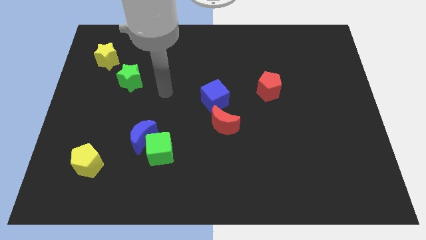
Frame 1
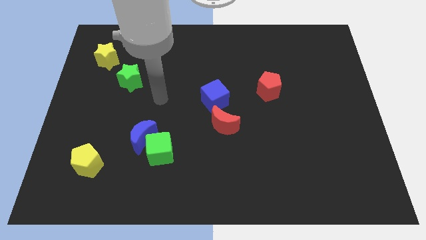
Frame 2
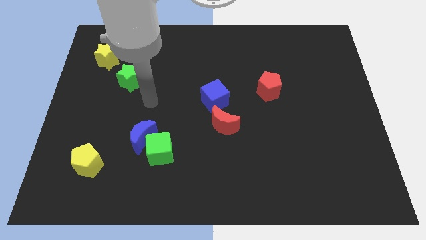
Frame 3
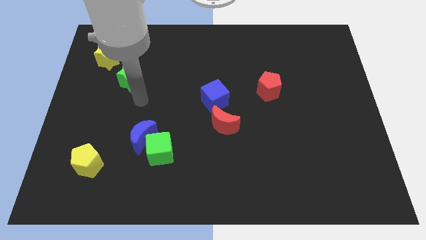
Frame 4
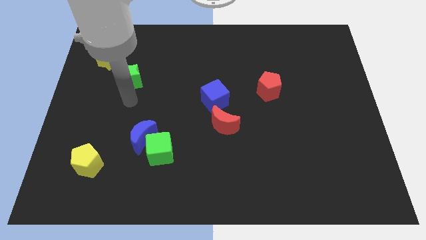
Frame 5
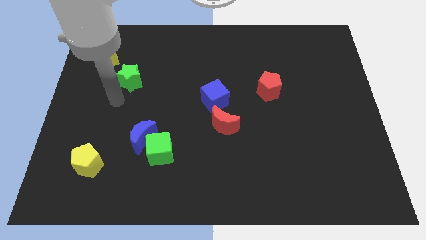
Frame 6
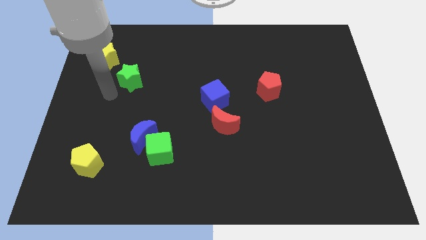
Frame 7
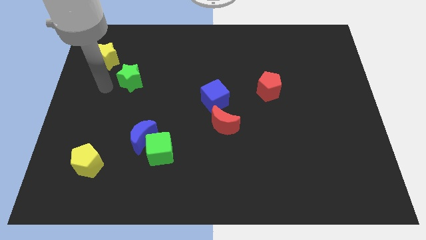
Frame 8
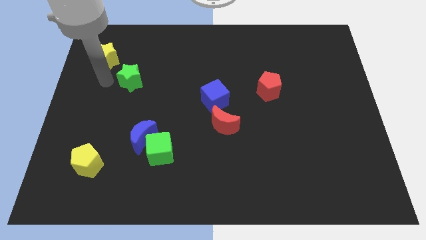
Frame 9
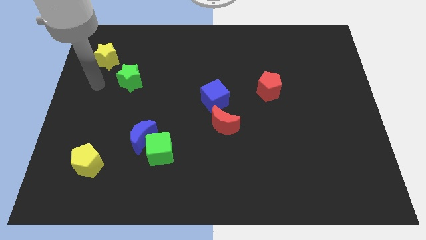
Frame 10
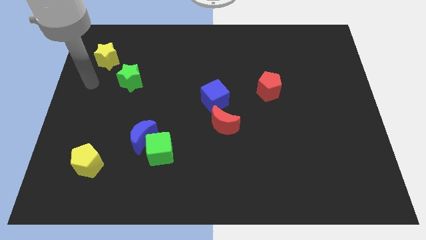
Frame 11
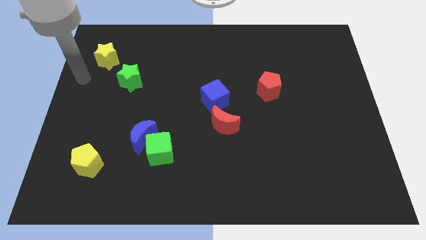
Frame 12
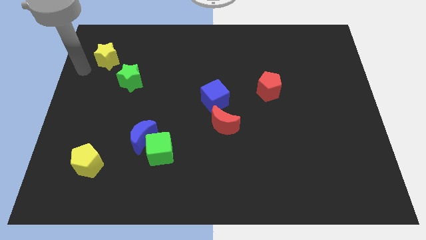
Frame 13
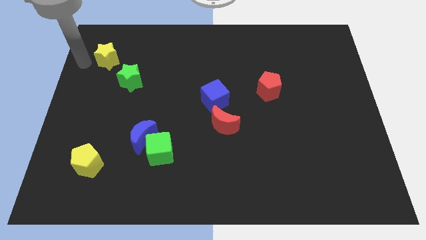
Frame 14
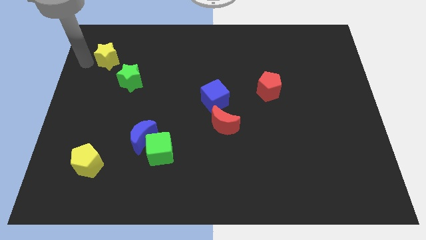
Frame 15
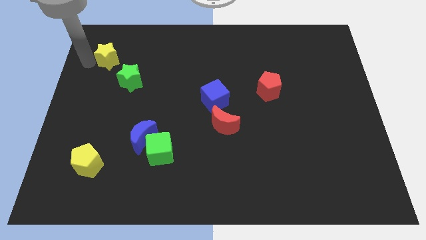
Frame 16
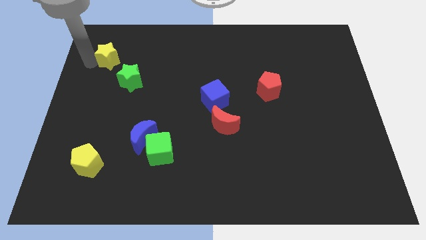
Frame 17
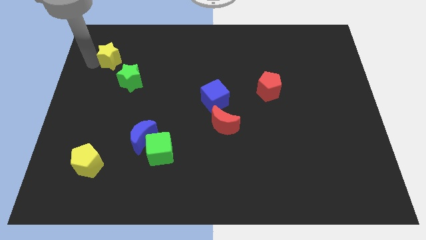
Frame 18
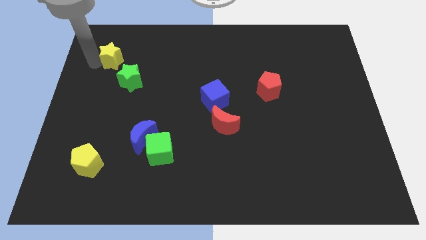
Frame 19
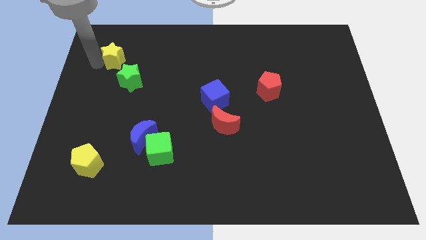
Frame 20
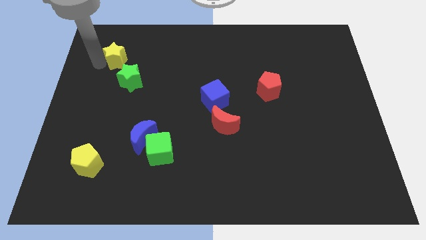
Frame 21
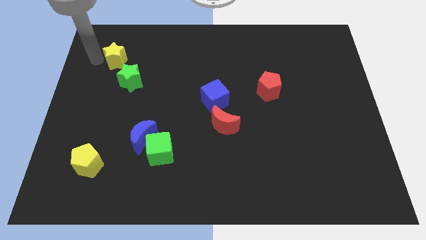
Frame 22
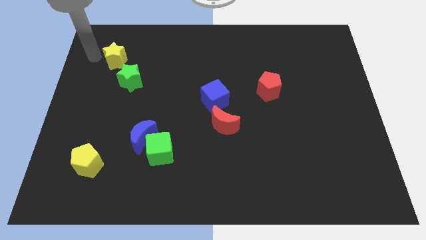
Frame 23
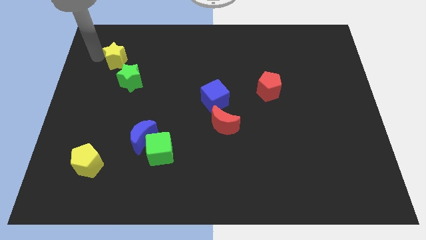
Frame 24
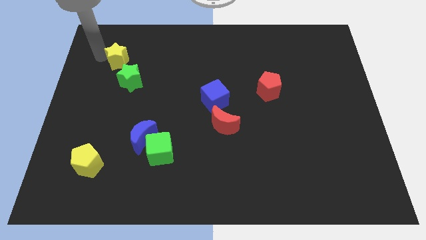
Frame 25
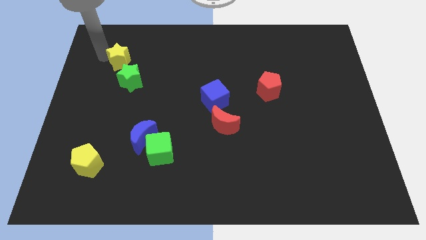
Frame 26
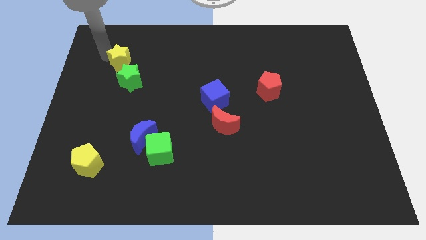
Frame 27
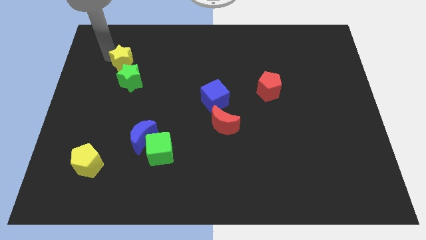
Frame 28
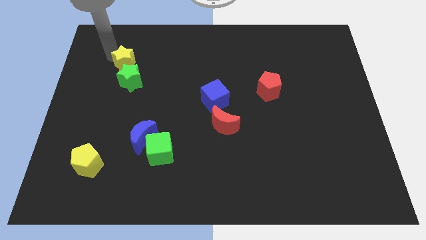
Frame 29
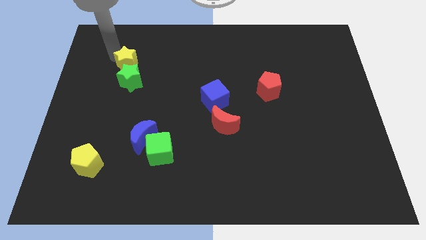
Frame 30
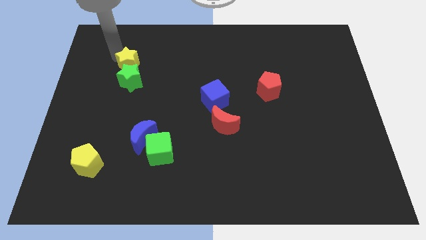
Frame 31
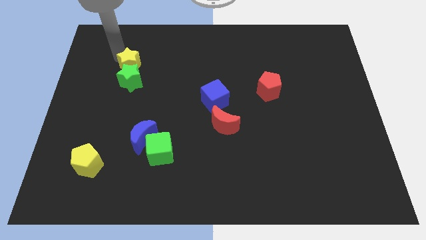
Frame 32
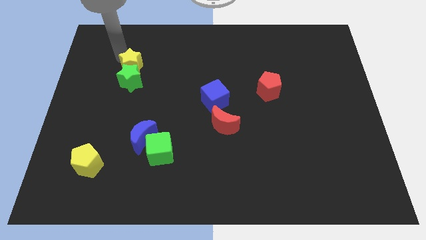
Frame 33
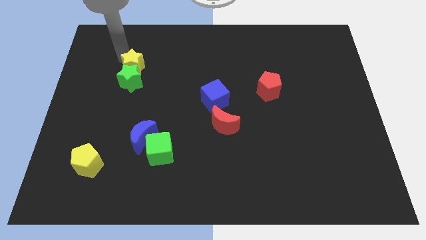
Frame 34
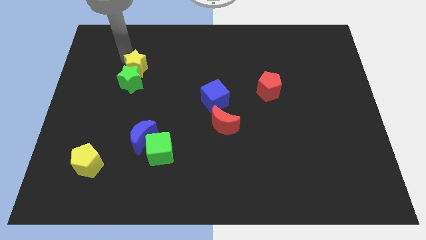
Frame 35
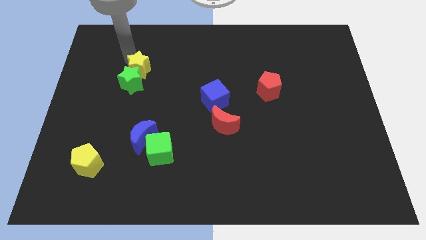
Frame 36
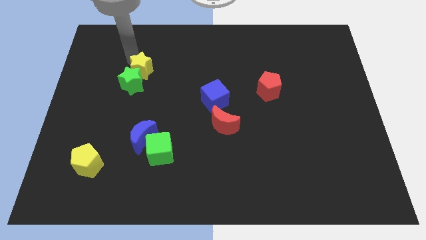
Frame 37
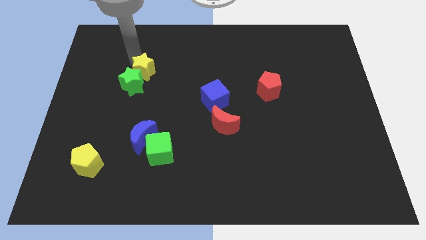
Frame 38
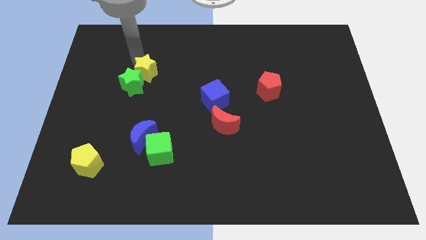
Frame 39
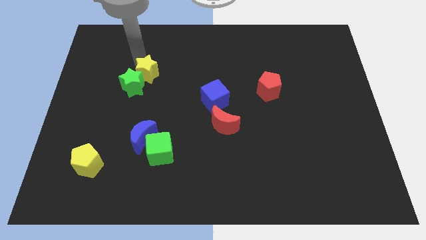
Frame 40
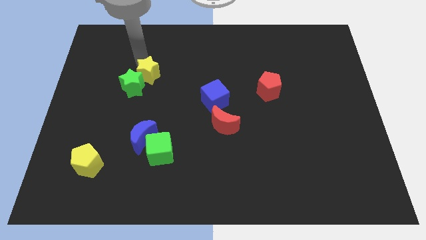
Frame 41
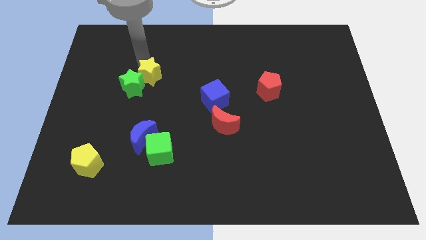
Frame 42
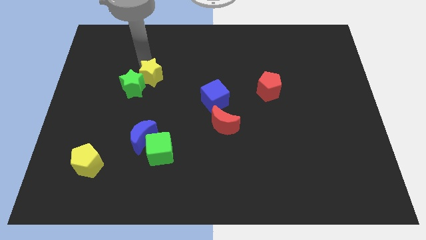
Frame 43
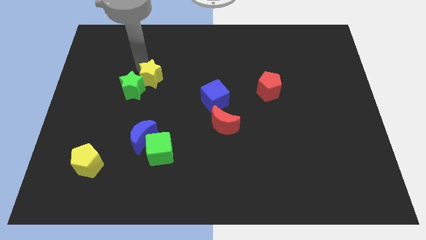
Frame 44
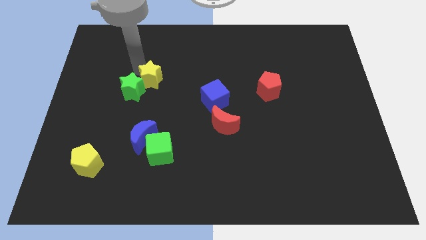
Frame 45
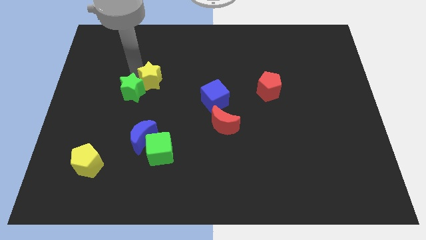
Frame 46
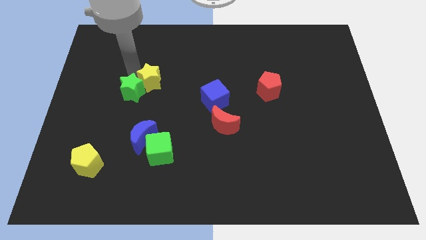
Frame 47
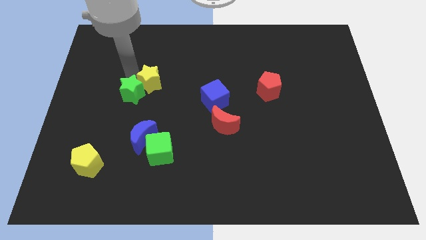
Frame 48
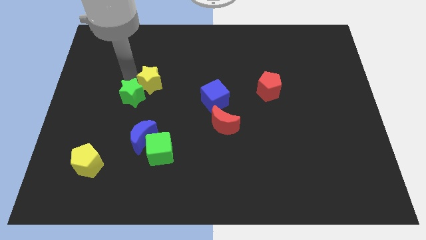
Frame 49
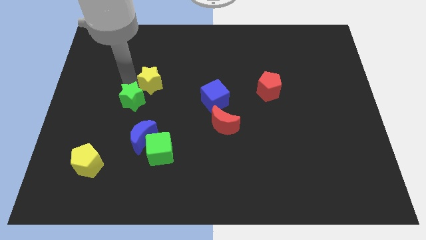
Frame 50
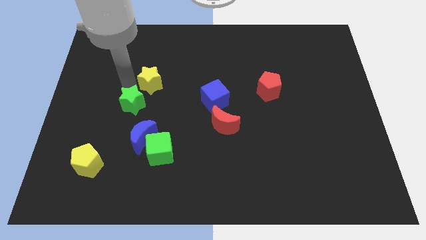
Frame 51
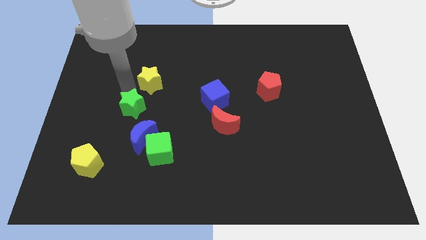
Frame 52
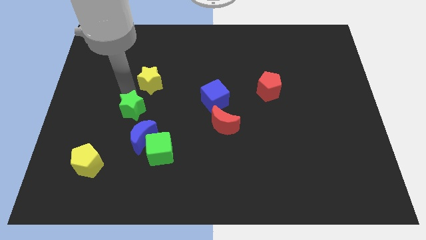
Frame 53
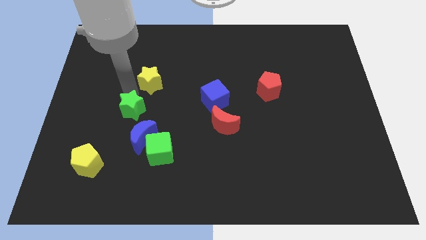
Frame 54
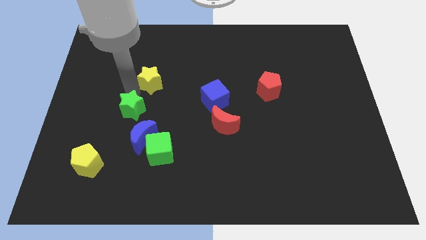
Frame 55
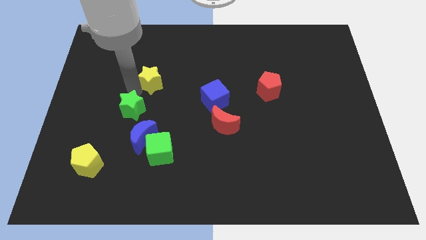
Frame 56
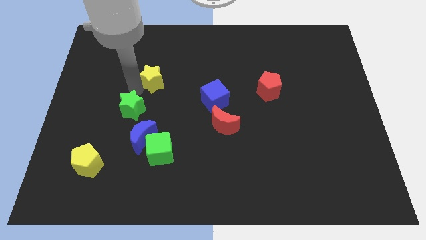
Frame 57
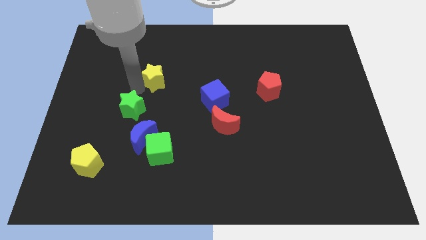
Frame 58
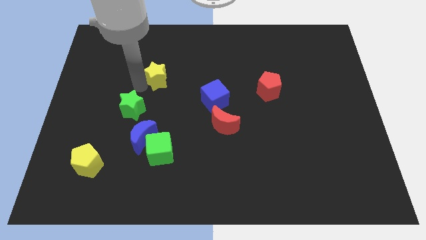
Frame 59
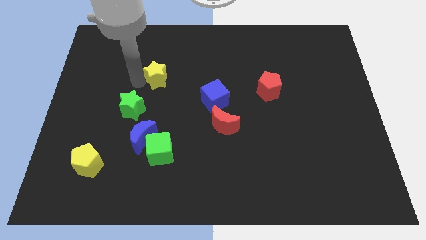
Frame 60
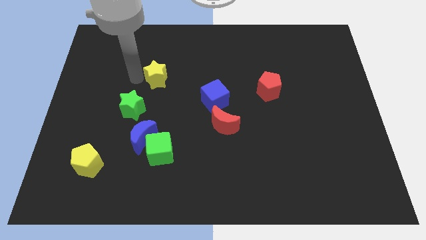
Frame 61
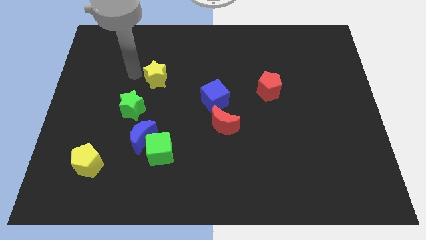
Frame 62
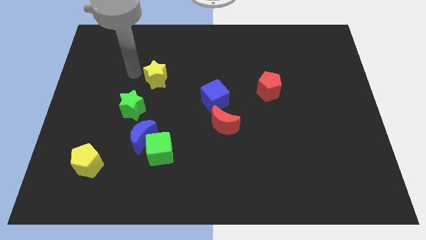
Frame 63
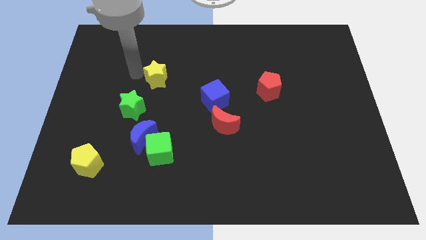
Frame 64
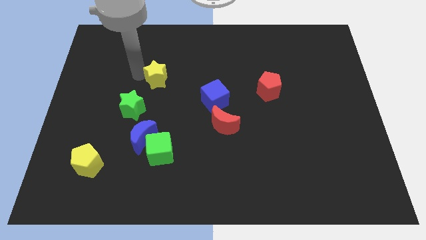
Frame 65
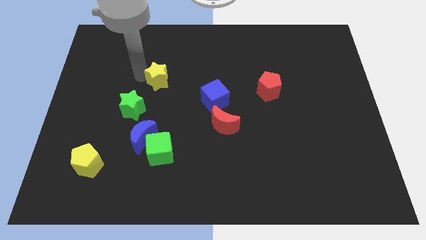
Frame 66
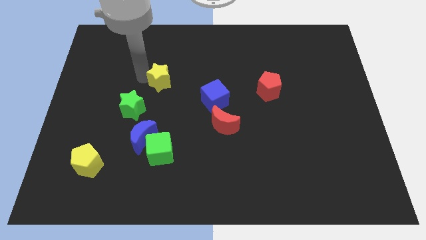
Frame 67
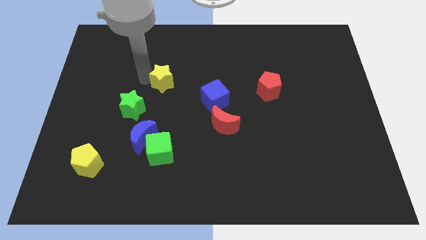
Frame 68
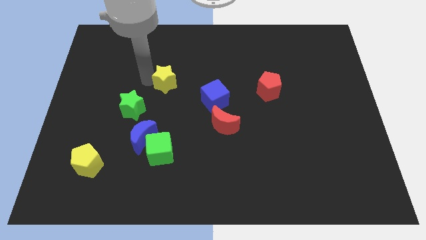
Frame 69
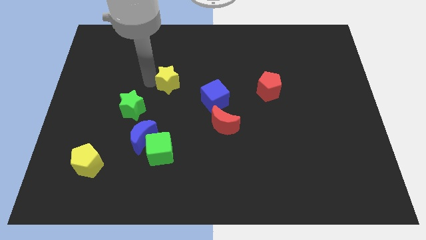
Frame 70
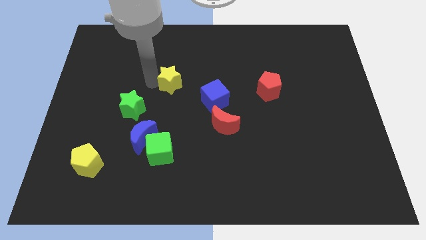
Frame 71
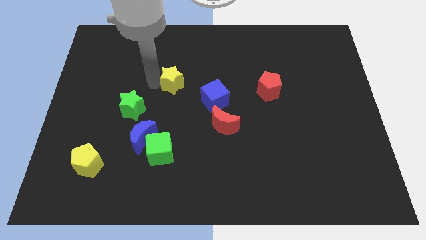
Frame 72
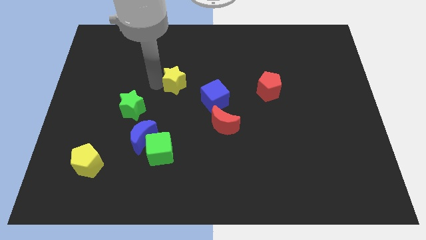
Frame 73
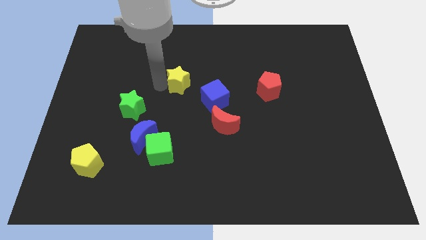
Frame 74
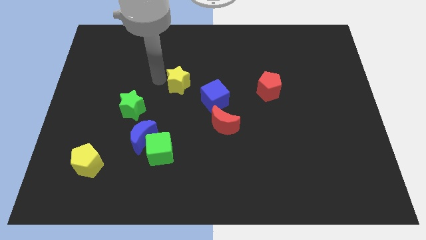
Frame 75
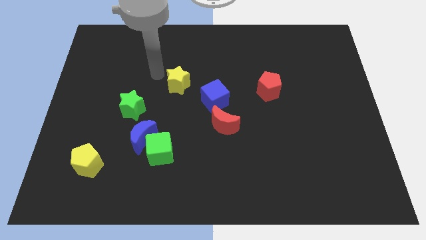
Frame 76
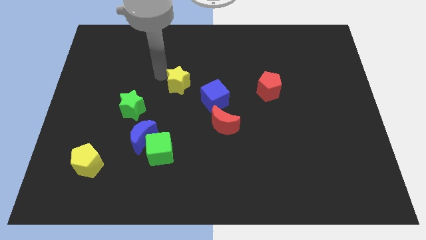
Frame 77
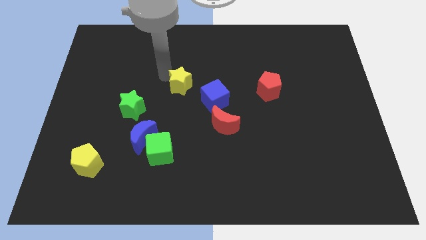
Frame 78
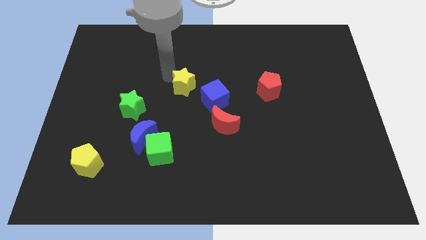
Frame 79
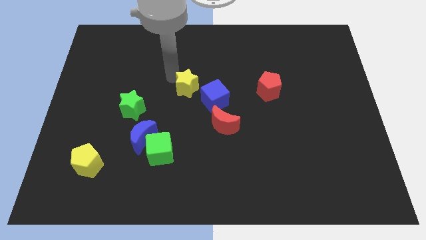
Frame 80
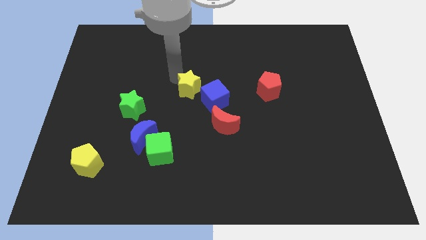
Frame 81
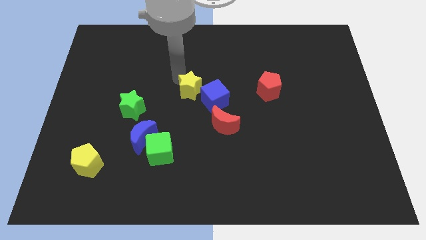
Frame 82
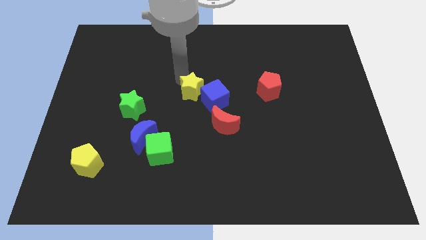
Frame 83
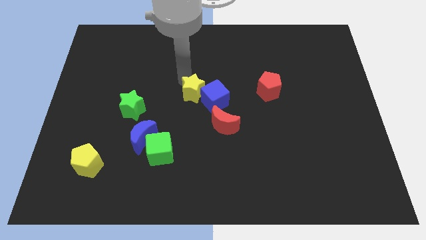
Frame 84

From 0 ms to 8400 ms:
slide the yellow star close to the blue cube
